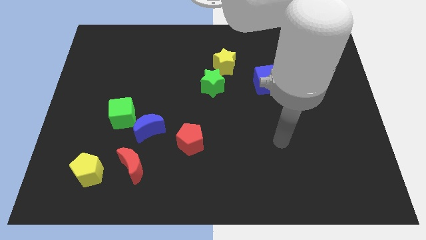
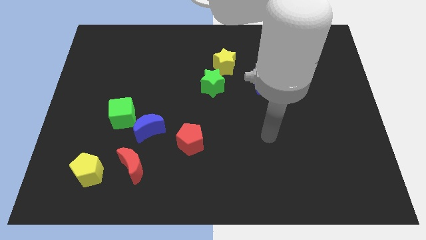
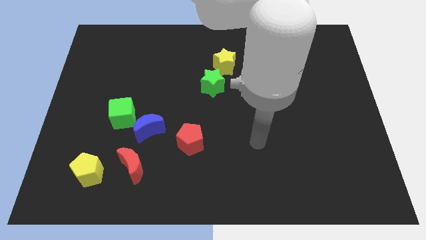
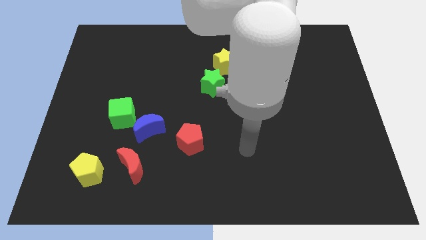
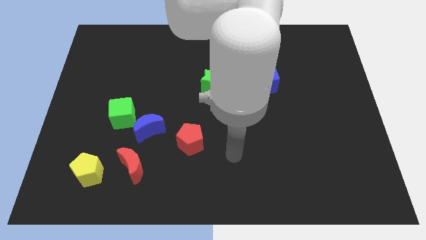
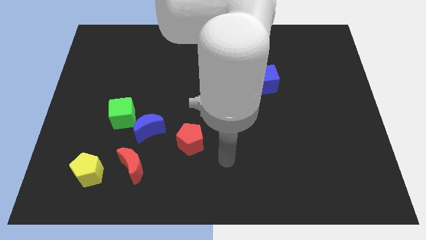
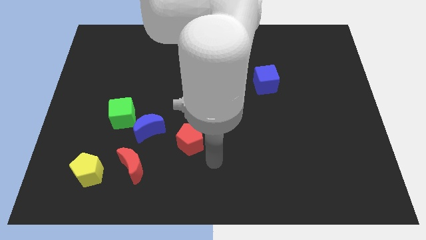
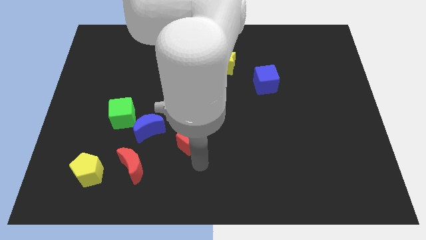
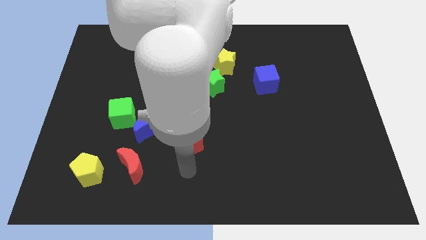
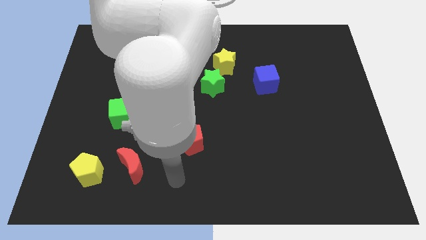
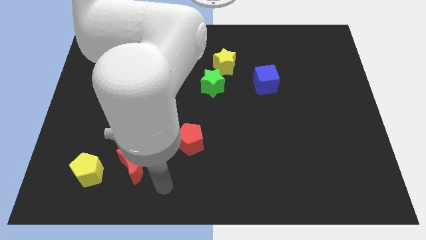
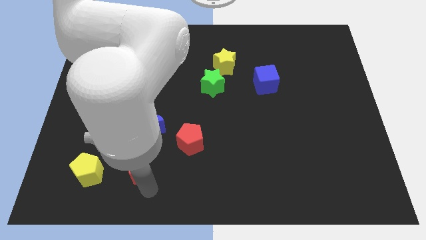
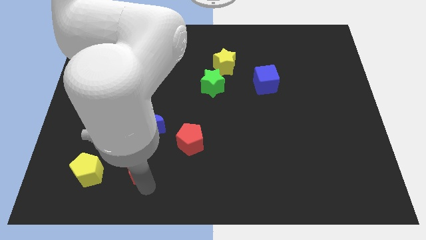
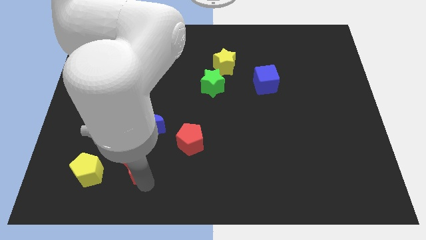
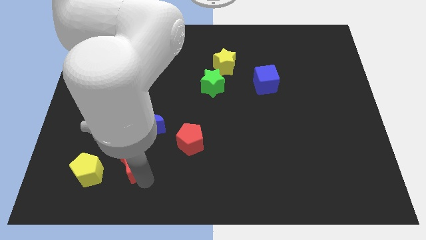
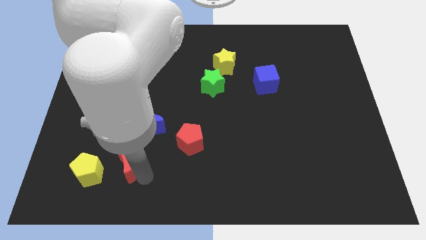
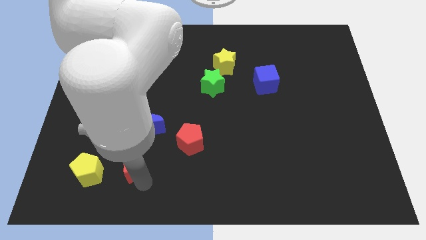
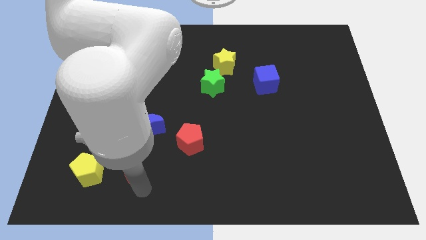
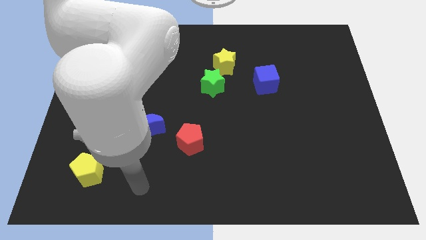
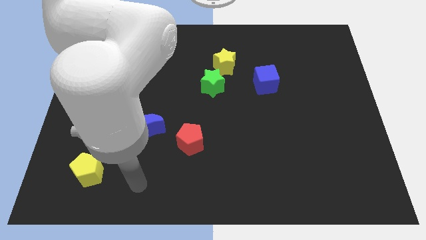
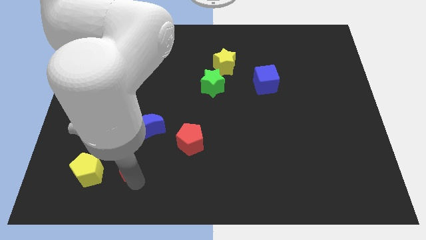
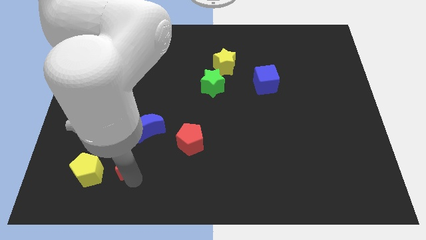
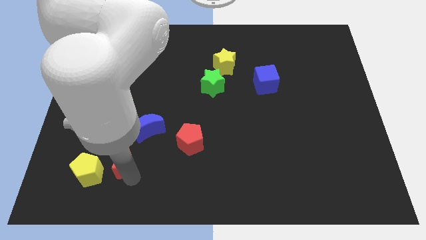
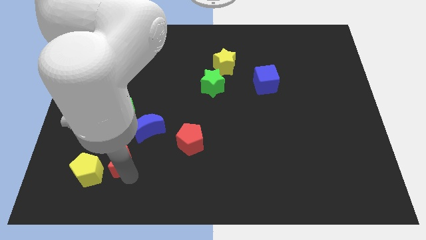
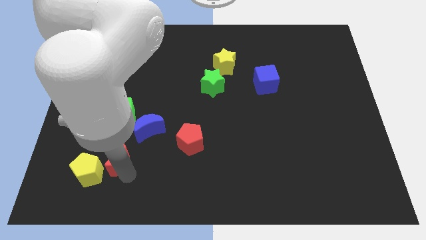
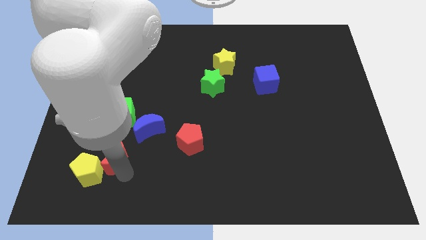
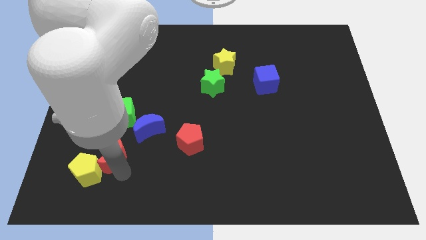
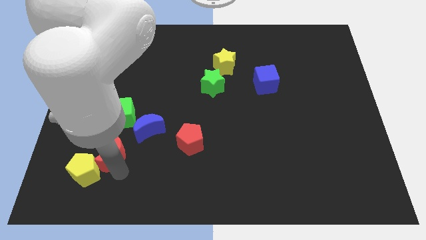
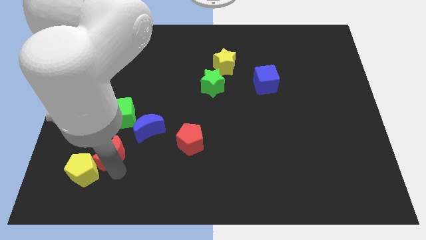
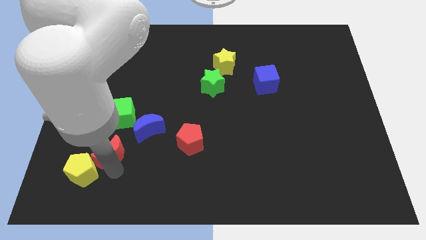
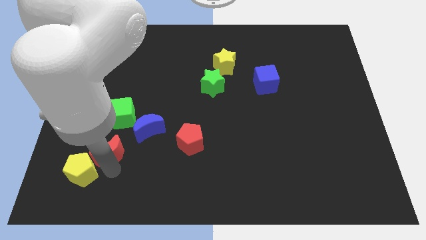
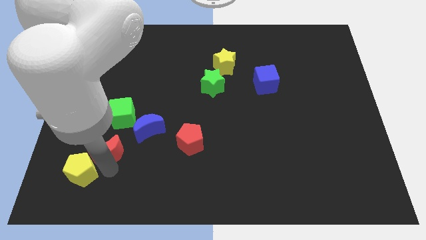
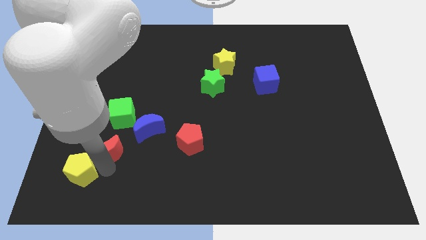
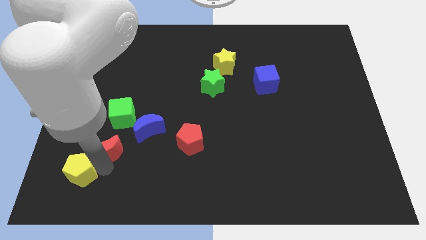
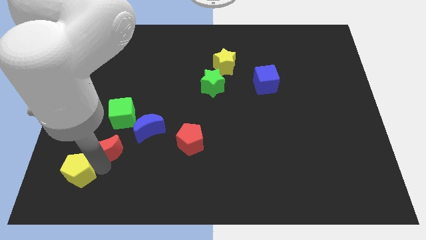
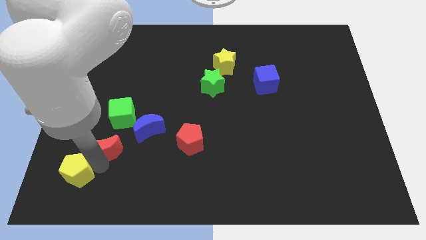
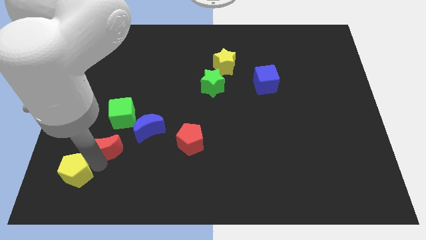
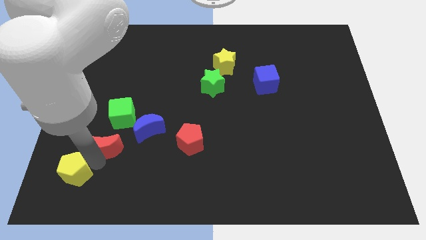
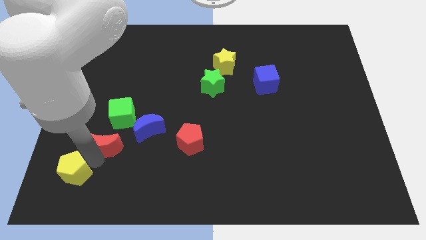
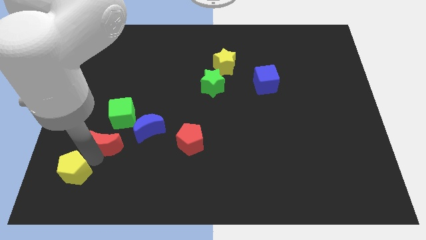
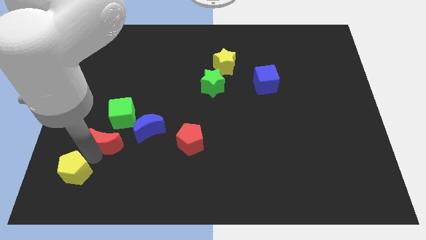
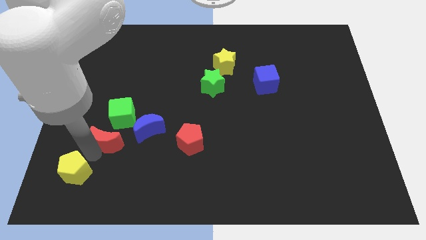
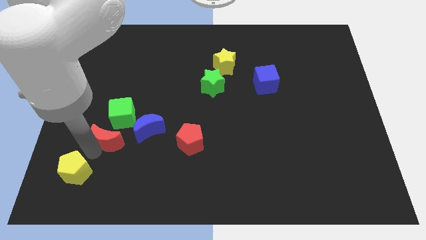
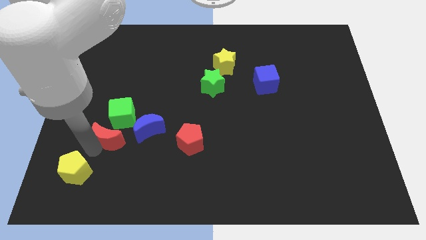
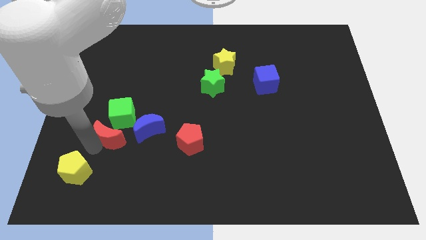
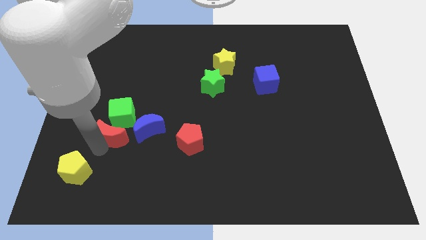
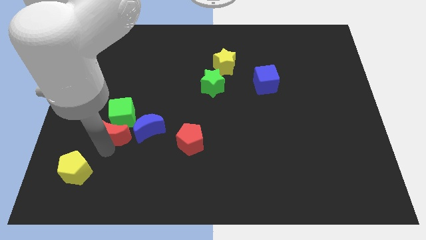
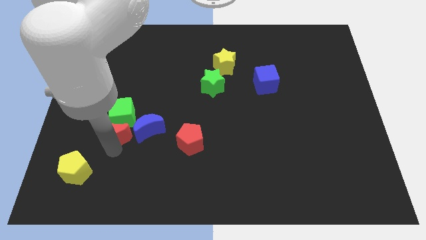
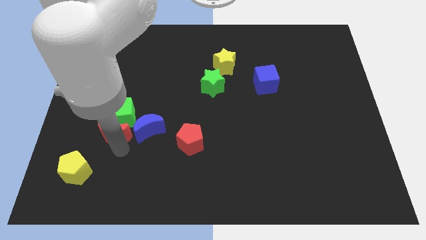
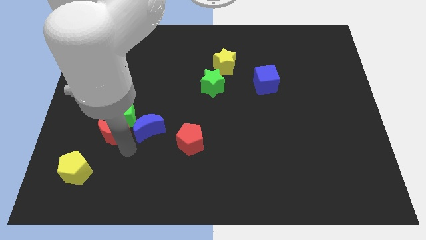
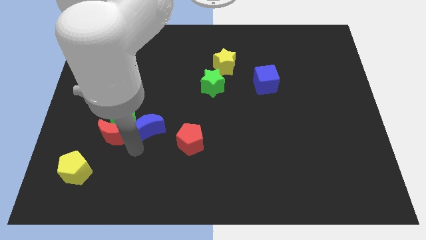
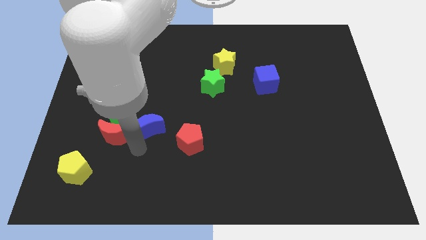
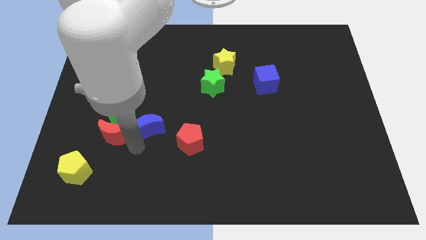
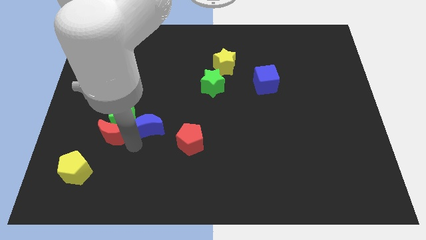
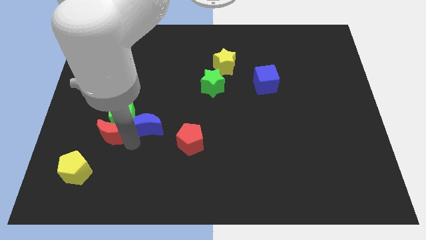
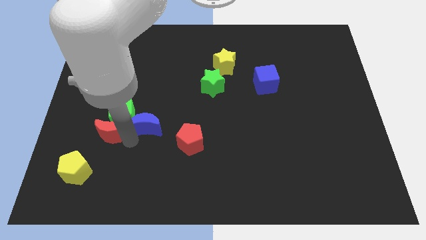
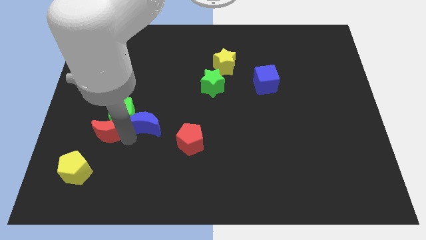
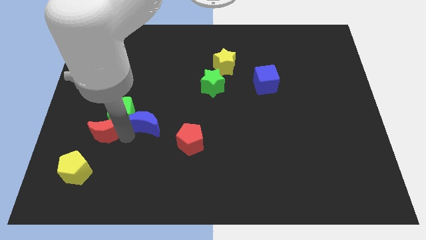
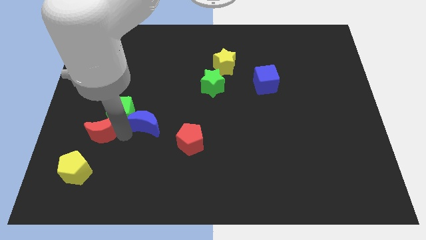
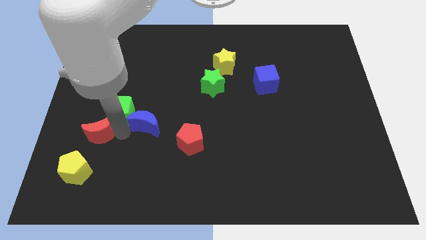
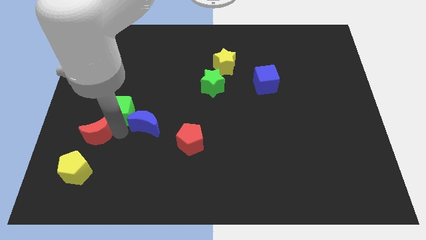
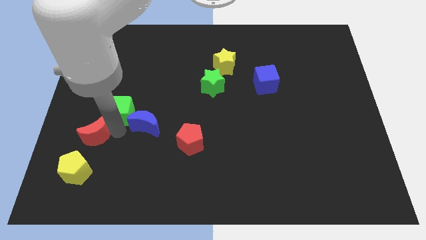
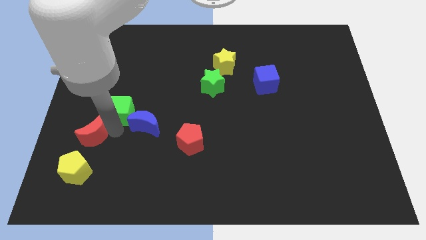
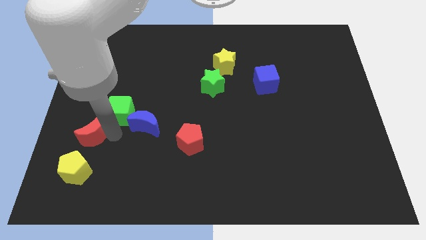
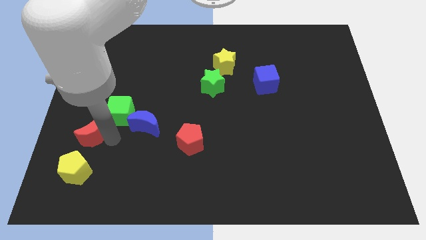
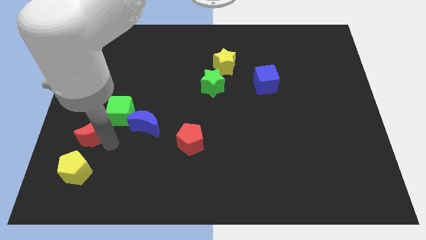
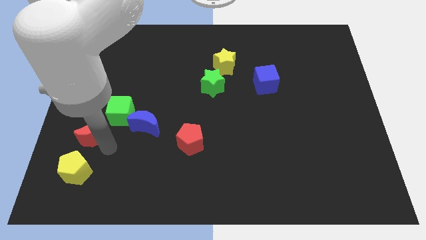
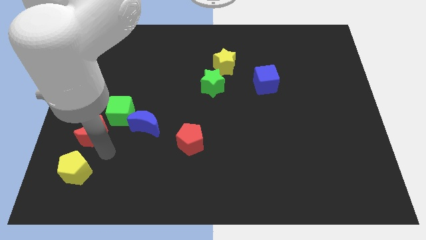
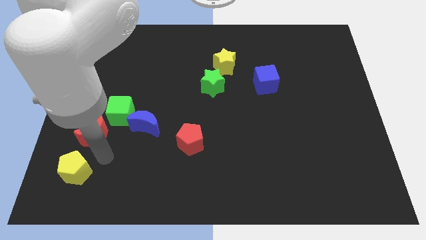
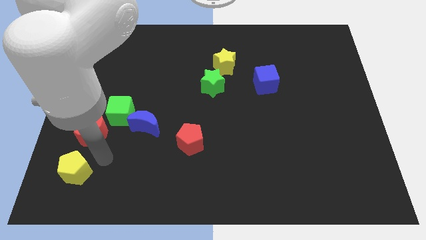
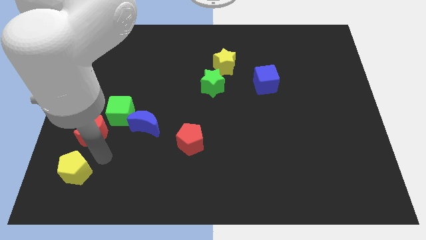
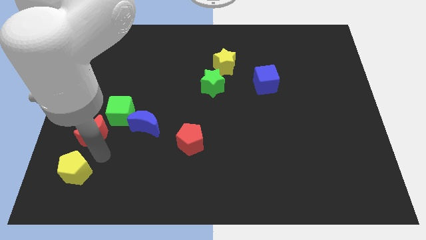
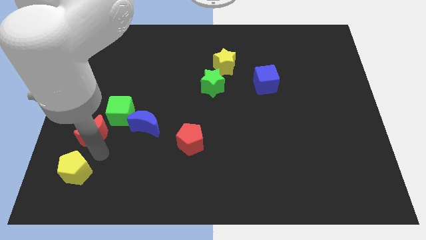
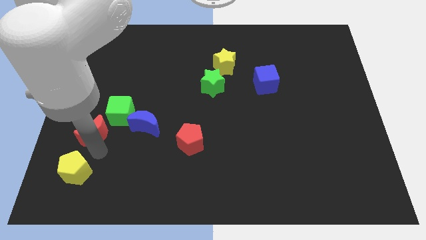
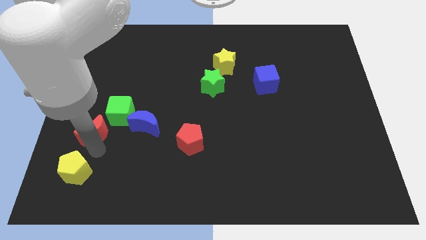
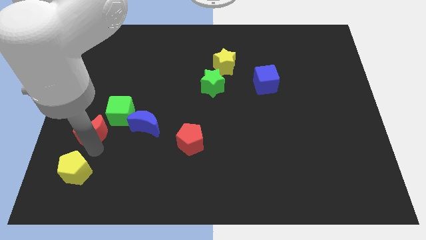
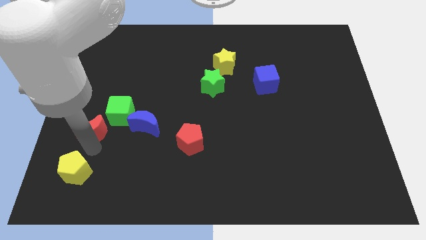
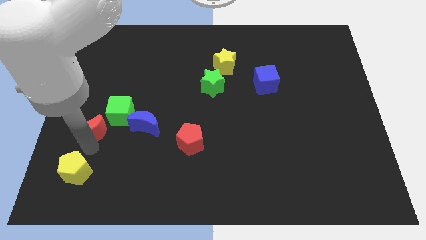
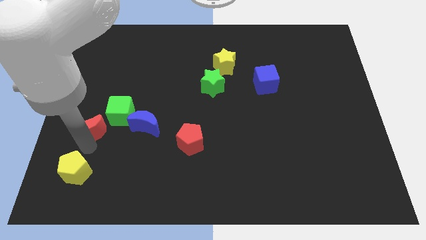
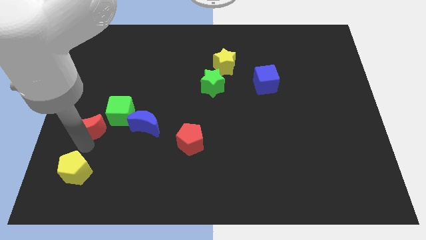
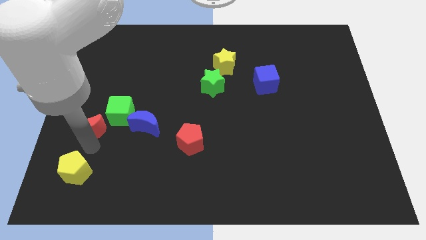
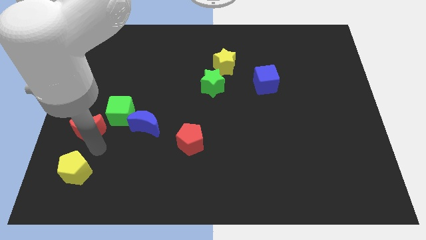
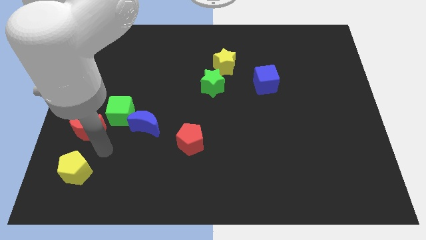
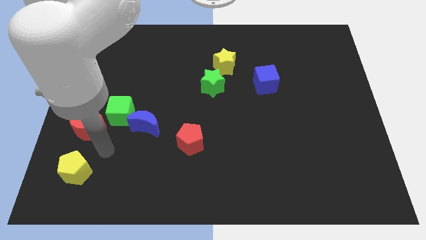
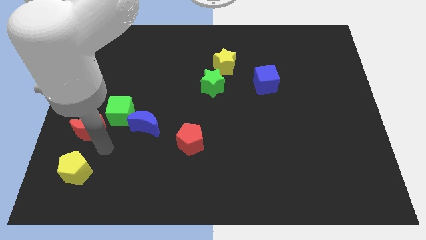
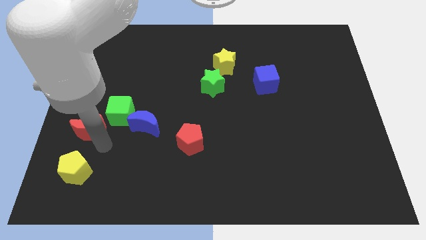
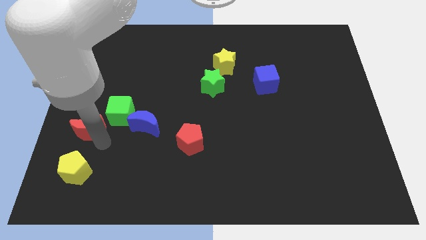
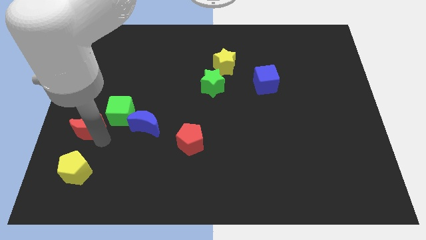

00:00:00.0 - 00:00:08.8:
put the red moon to the left side of the board
